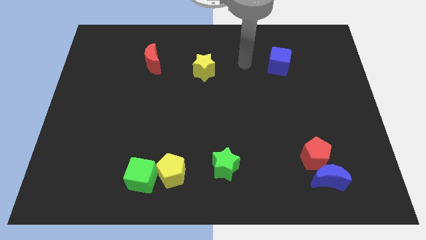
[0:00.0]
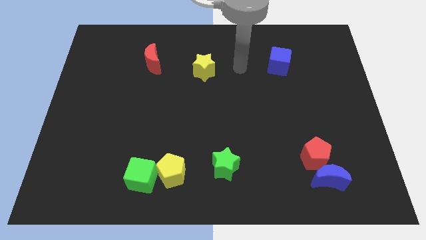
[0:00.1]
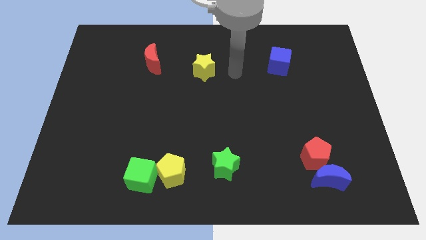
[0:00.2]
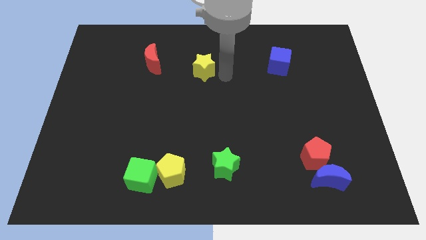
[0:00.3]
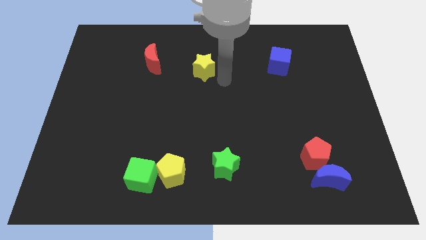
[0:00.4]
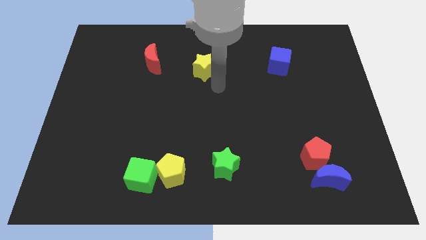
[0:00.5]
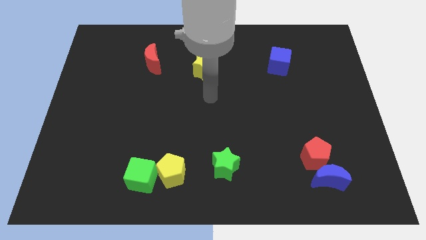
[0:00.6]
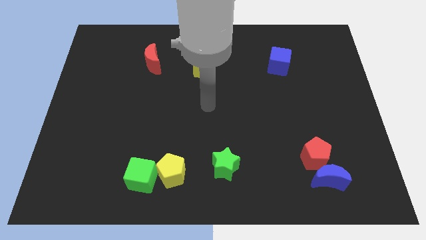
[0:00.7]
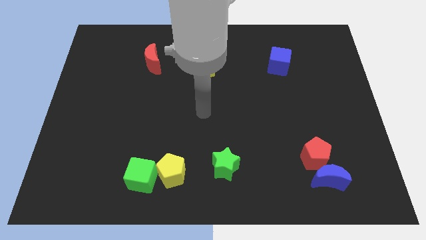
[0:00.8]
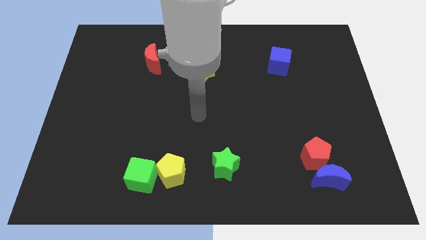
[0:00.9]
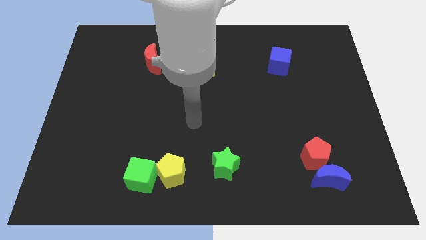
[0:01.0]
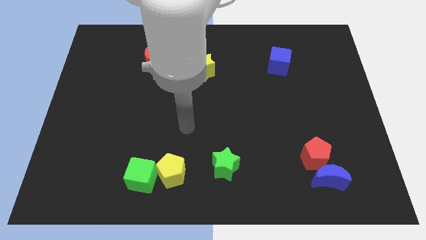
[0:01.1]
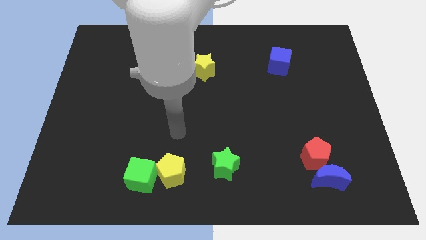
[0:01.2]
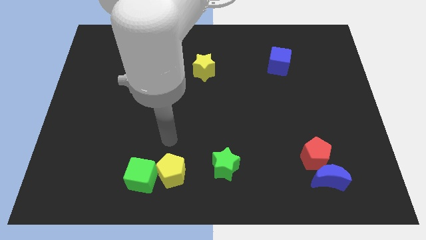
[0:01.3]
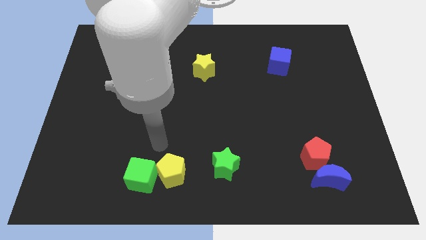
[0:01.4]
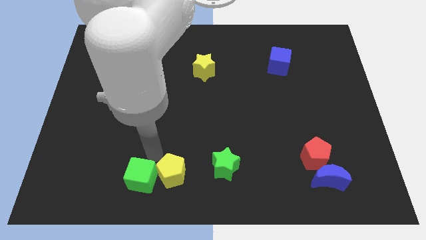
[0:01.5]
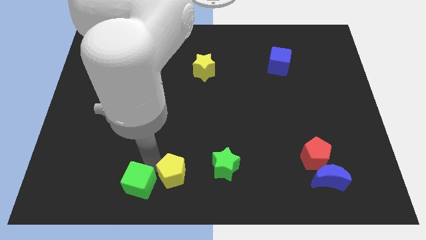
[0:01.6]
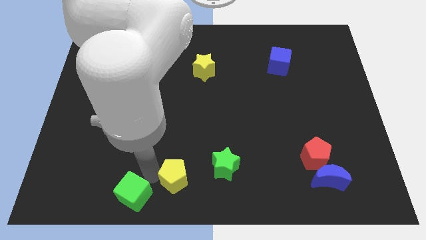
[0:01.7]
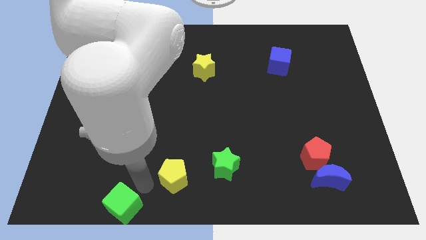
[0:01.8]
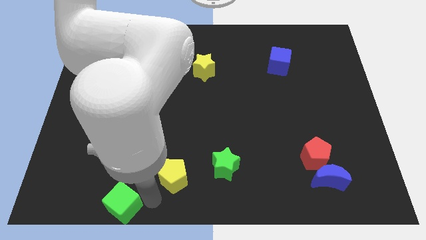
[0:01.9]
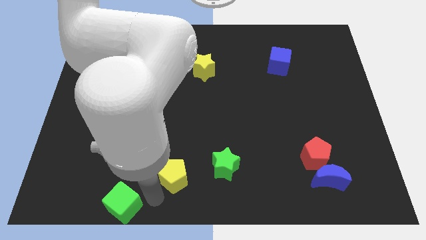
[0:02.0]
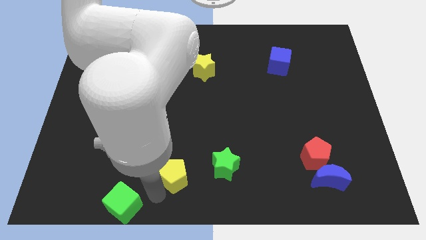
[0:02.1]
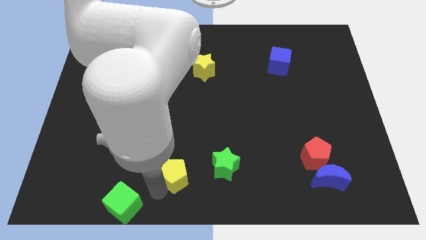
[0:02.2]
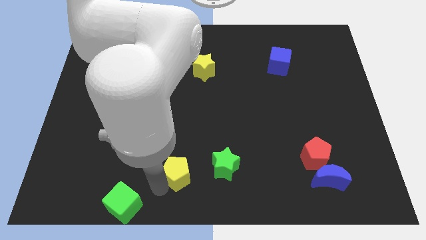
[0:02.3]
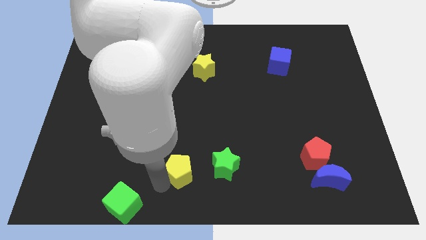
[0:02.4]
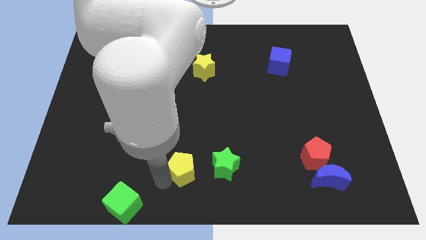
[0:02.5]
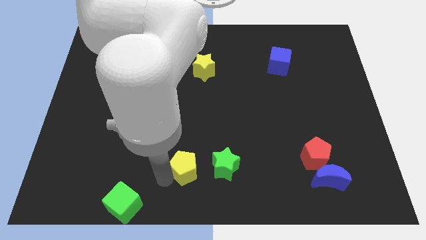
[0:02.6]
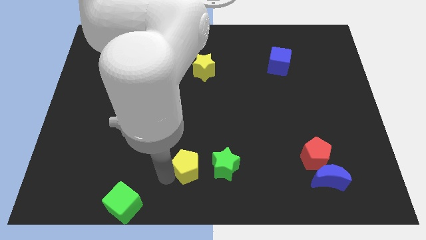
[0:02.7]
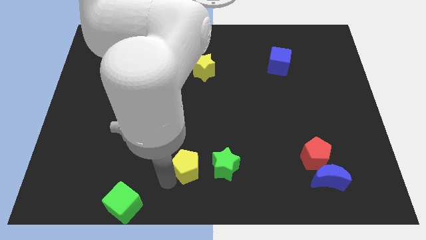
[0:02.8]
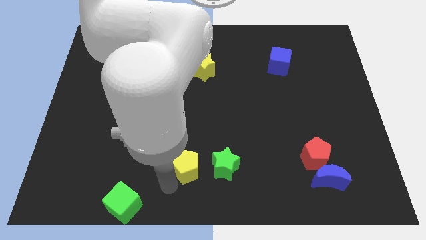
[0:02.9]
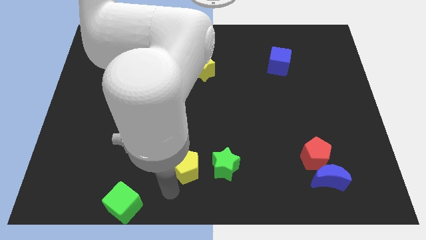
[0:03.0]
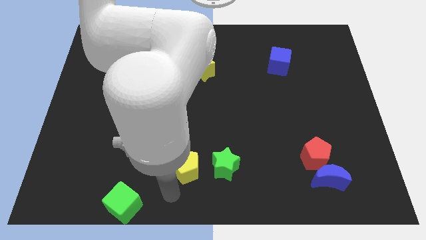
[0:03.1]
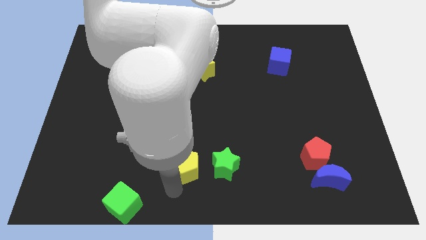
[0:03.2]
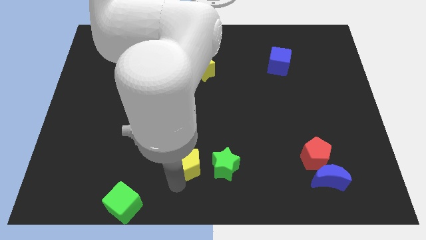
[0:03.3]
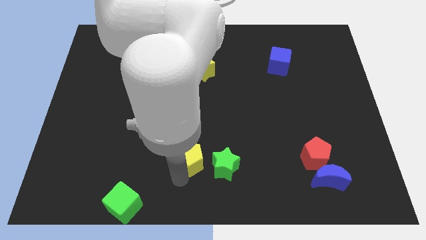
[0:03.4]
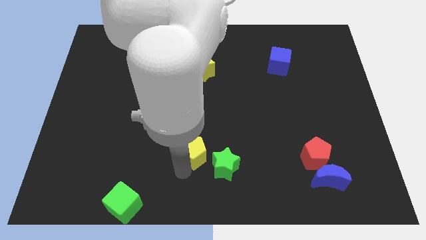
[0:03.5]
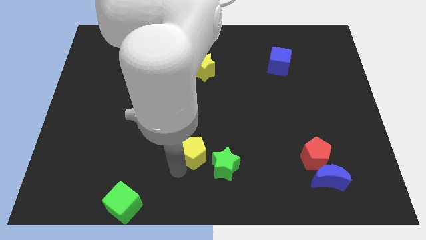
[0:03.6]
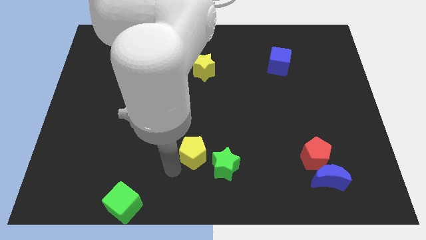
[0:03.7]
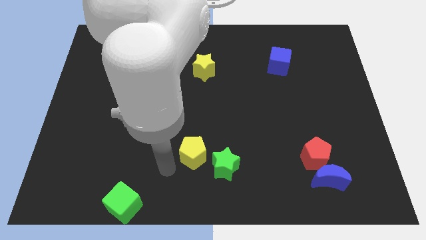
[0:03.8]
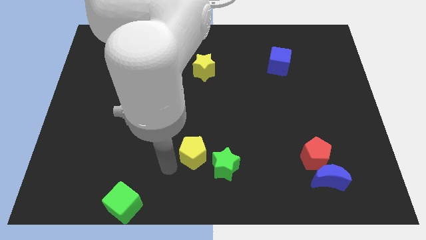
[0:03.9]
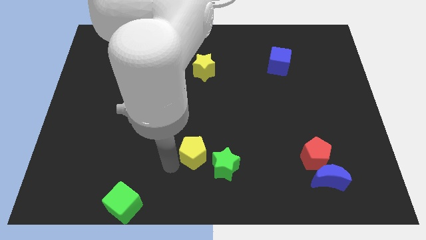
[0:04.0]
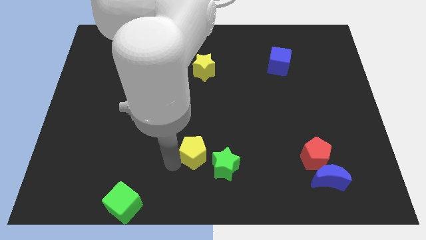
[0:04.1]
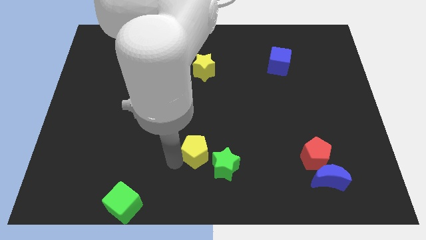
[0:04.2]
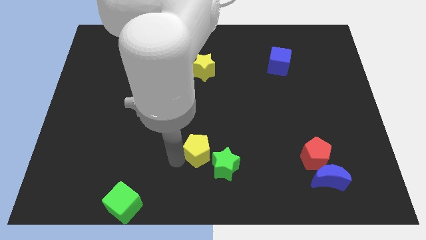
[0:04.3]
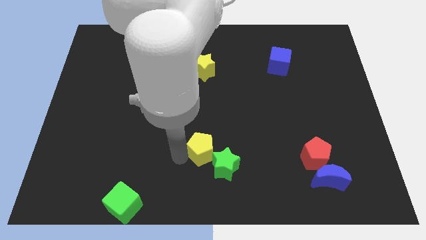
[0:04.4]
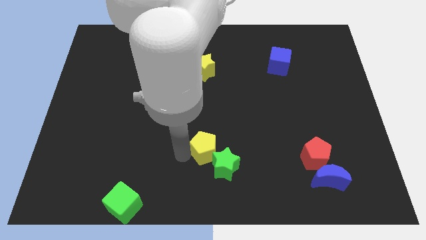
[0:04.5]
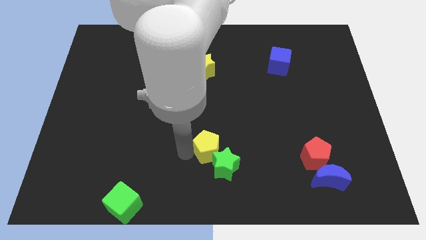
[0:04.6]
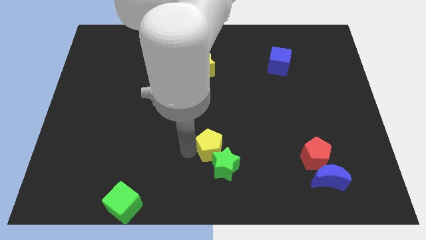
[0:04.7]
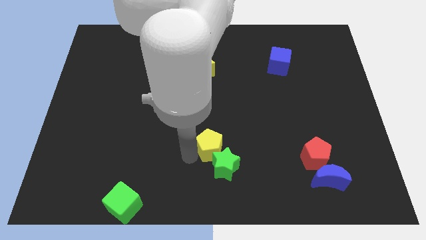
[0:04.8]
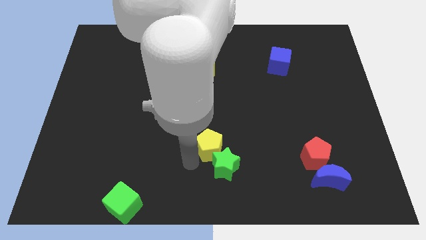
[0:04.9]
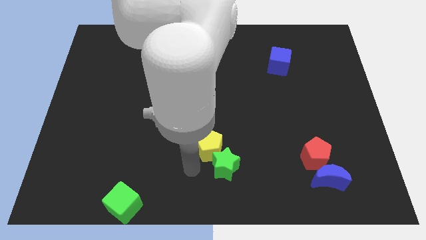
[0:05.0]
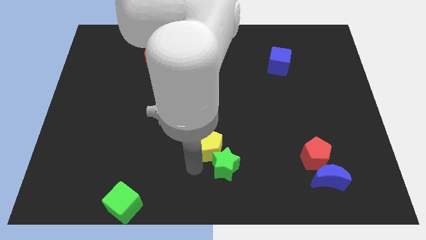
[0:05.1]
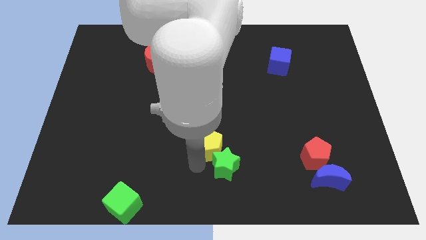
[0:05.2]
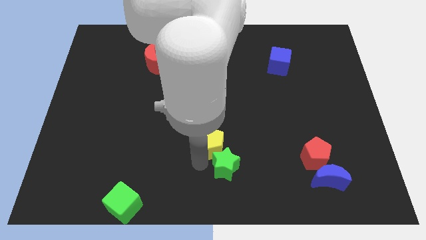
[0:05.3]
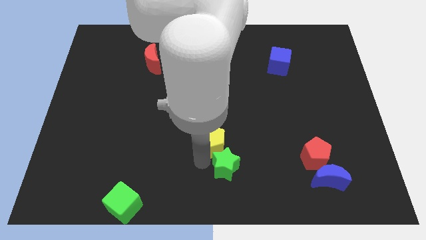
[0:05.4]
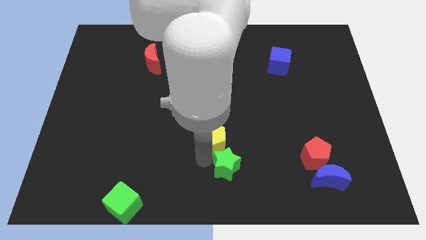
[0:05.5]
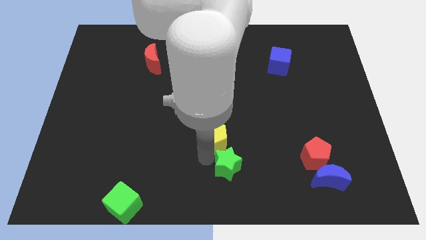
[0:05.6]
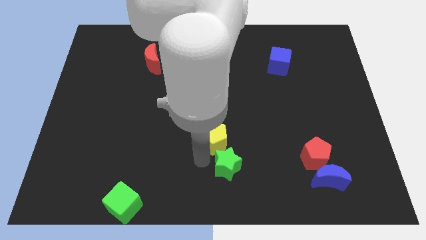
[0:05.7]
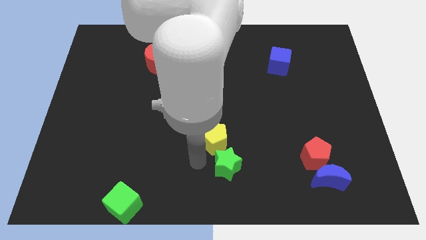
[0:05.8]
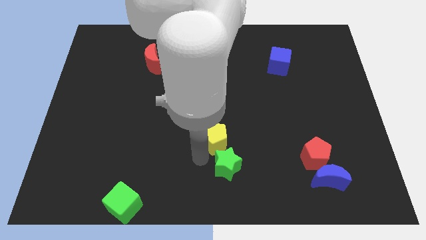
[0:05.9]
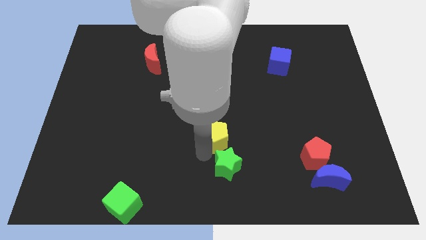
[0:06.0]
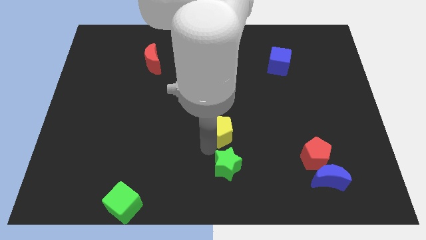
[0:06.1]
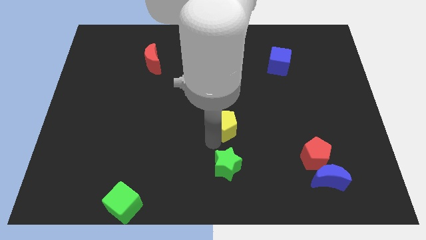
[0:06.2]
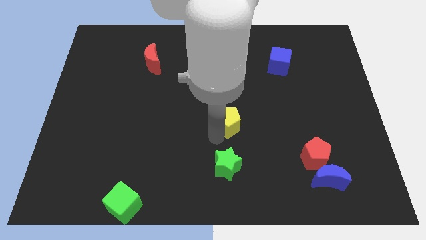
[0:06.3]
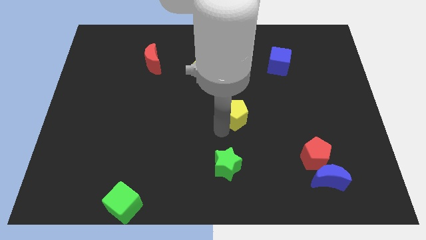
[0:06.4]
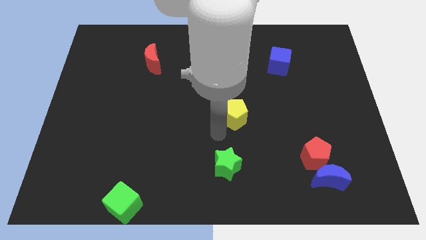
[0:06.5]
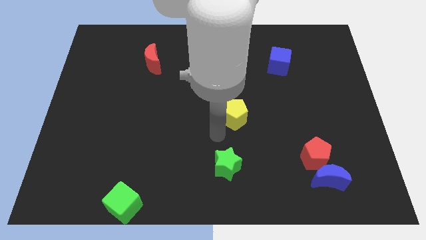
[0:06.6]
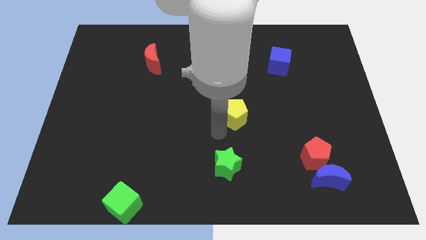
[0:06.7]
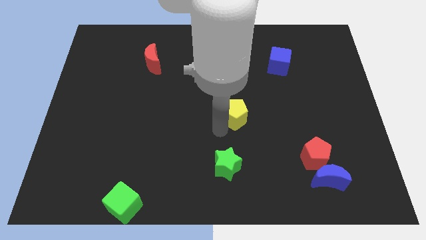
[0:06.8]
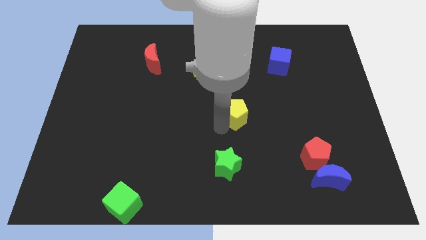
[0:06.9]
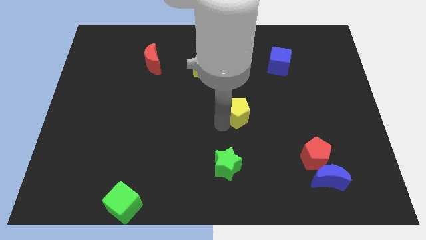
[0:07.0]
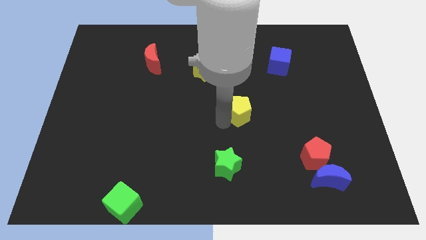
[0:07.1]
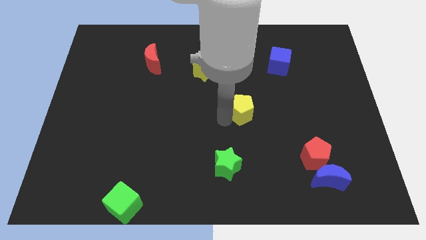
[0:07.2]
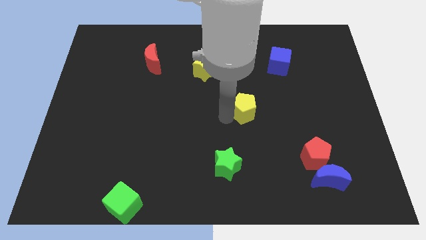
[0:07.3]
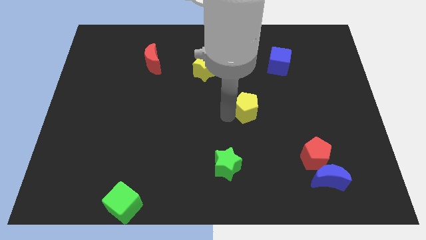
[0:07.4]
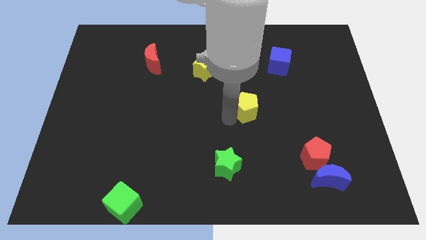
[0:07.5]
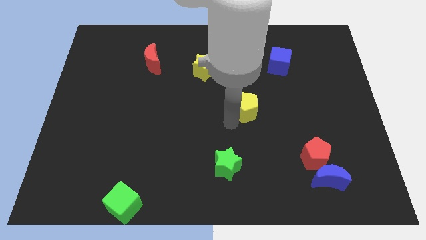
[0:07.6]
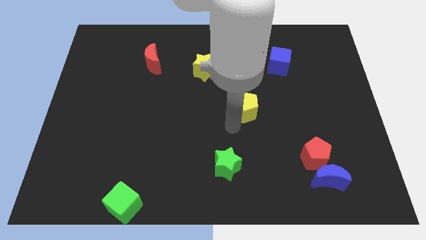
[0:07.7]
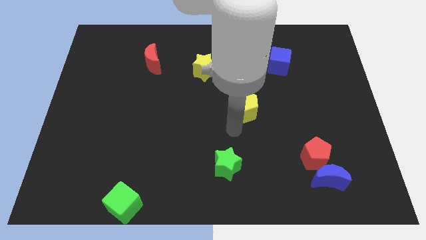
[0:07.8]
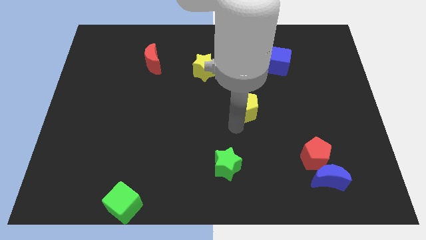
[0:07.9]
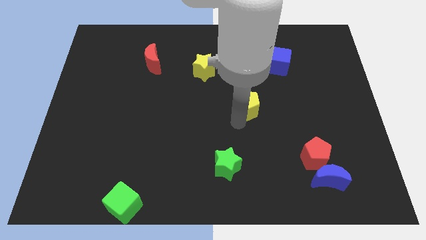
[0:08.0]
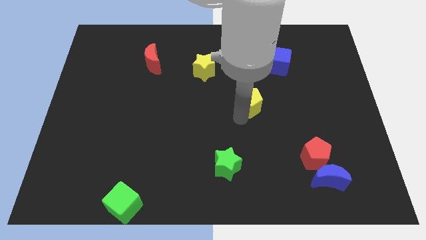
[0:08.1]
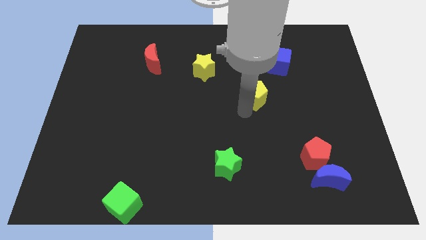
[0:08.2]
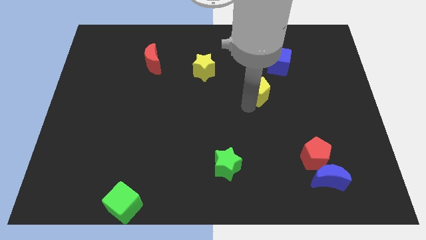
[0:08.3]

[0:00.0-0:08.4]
slide the yellow pentagon diagonally down and to the left of the blue cube
